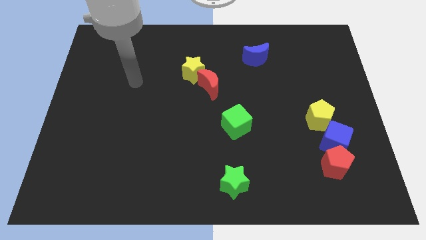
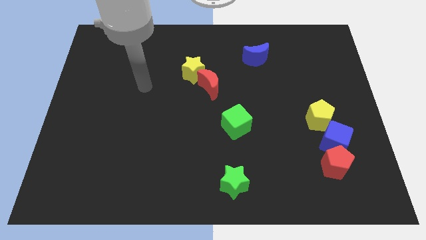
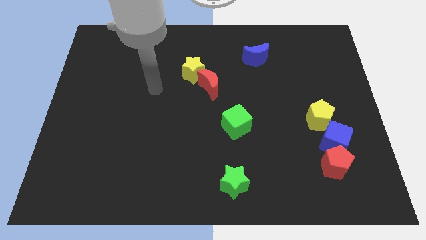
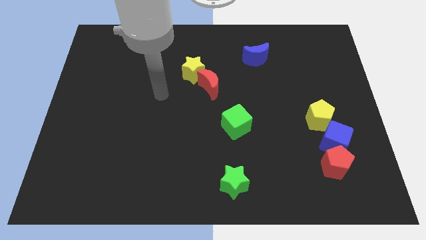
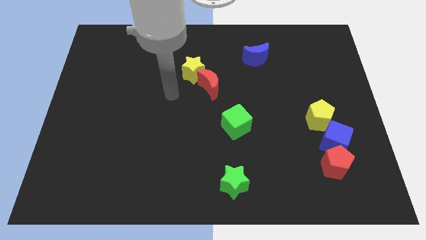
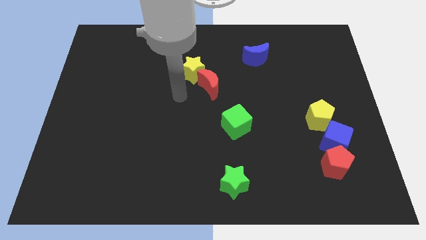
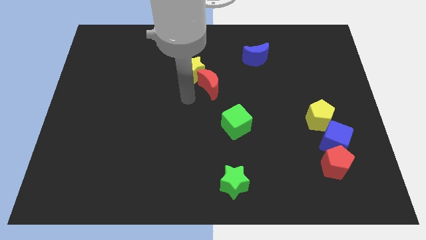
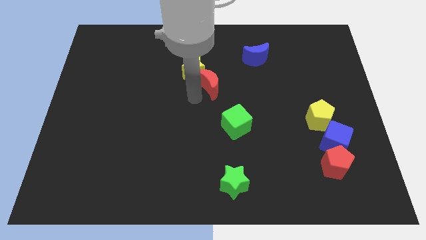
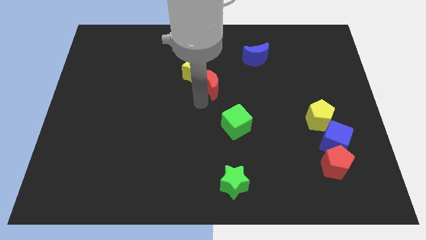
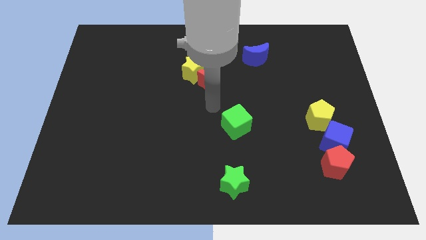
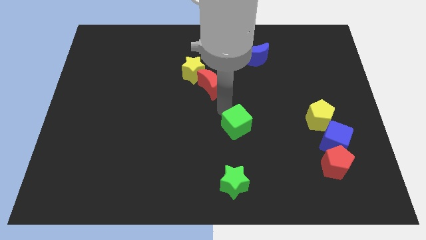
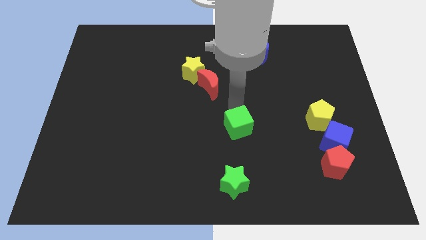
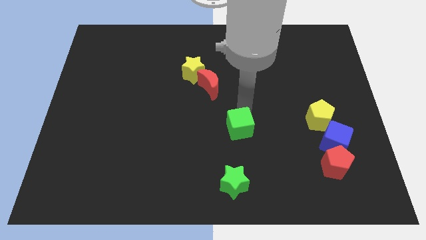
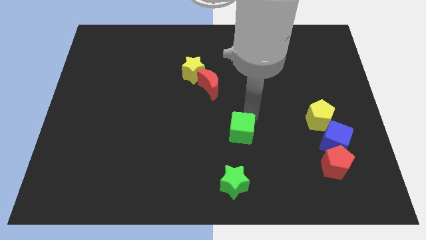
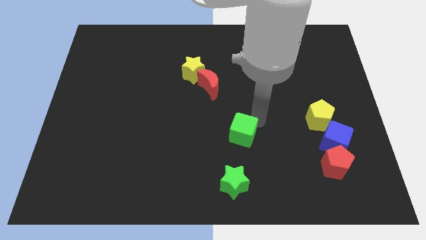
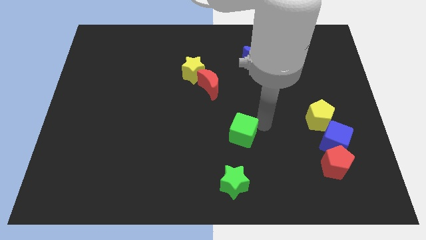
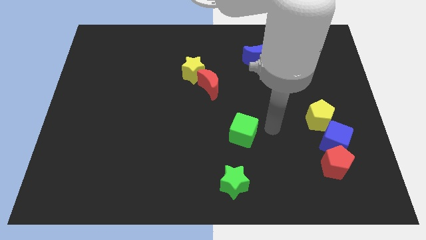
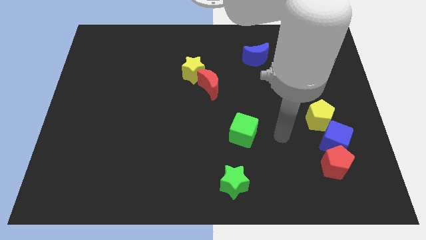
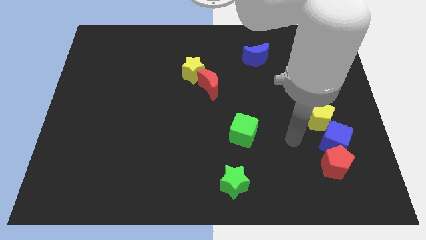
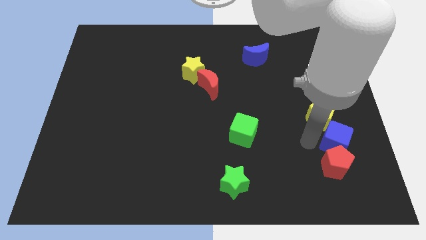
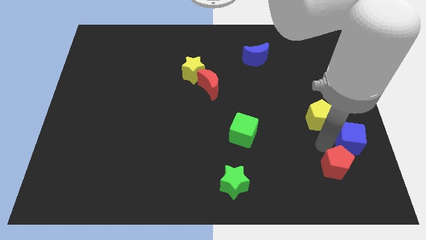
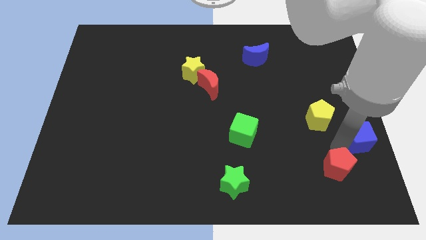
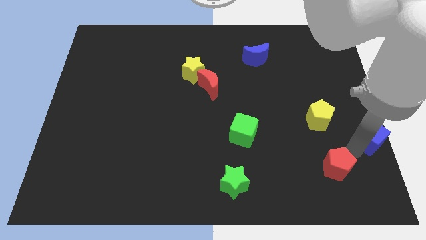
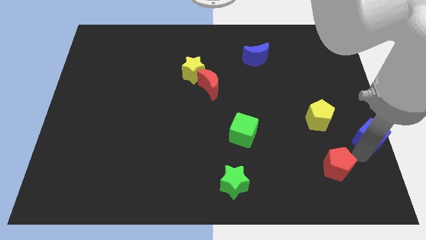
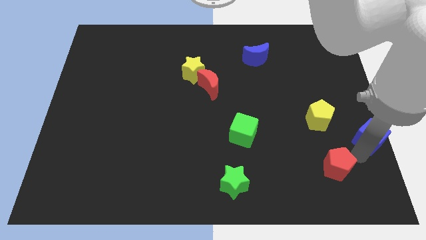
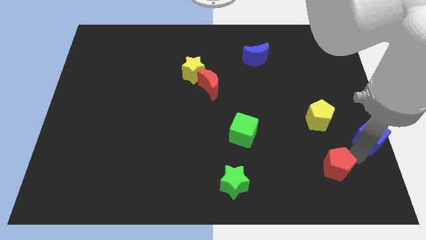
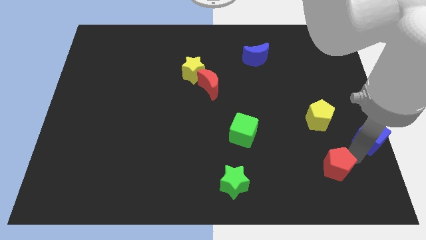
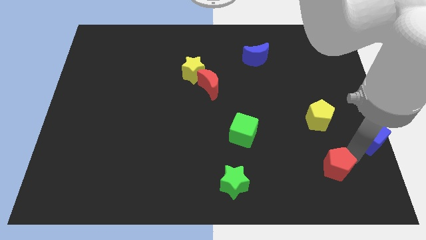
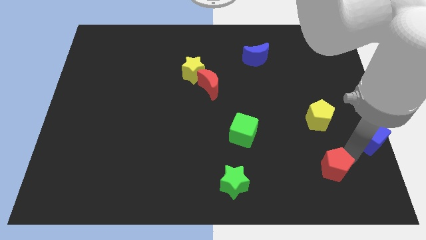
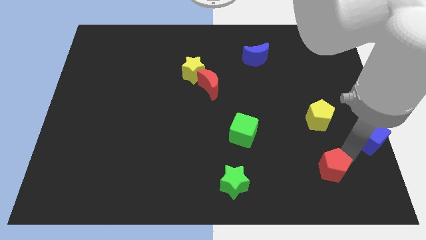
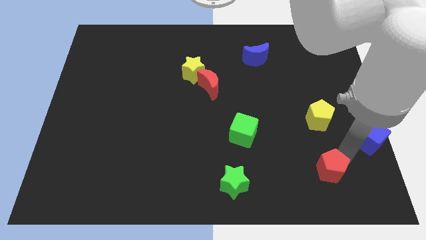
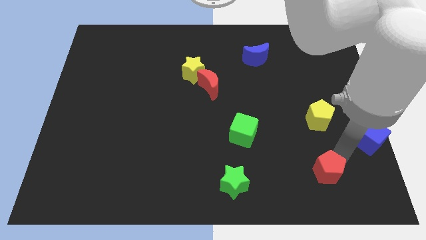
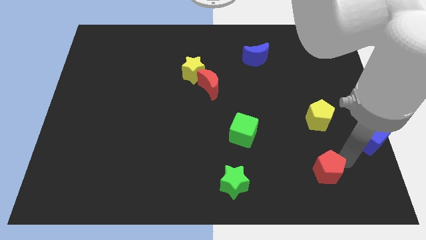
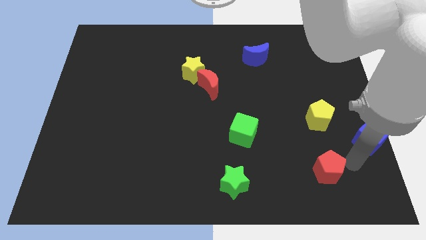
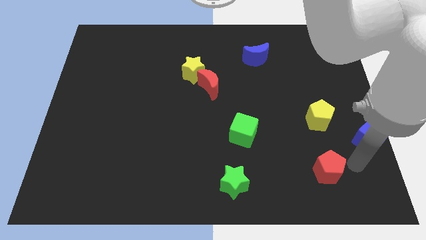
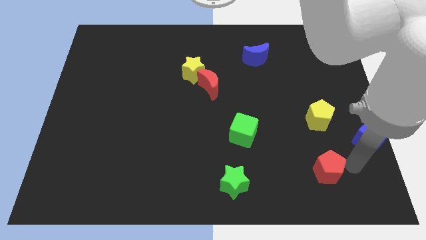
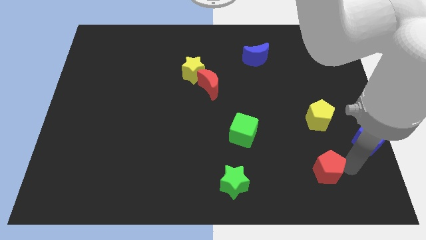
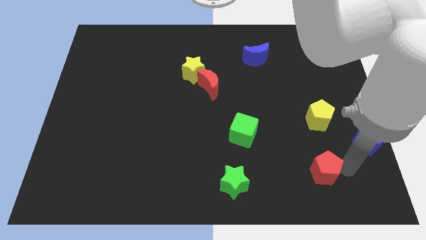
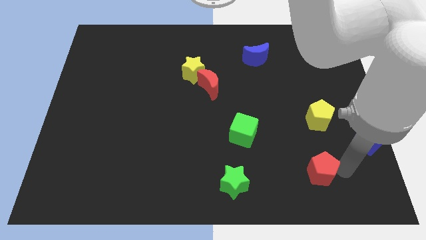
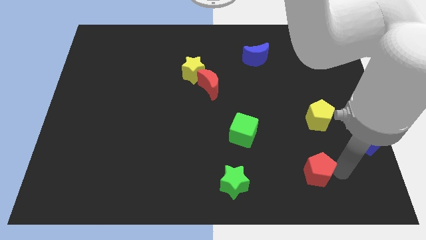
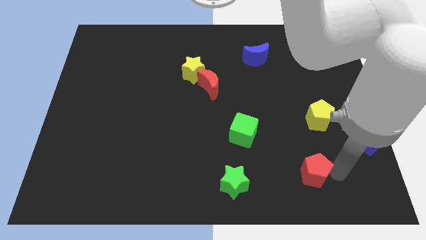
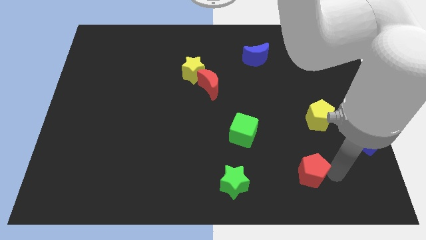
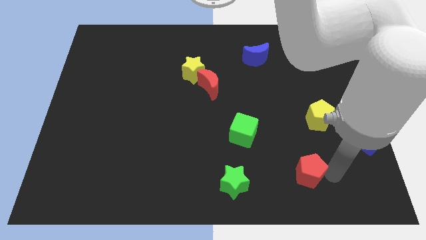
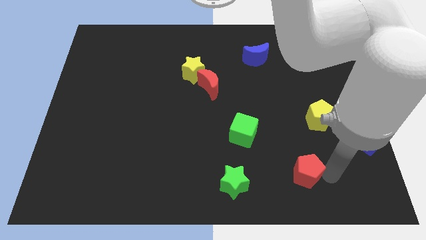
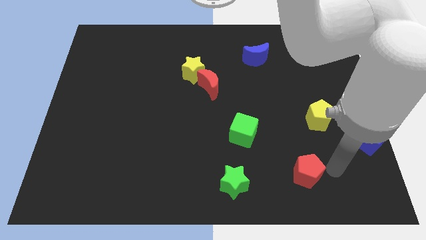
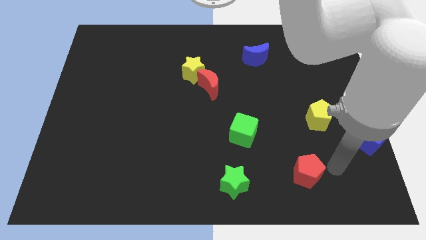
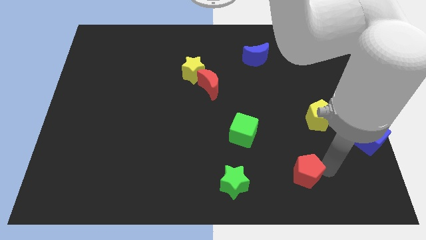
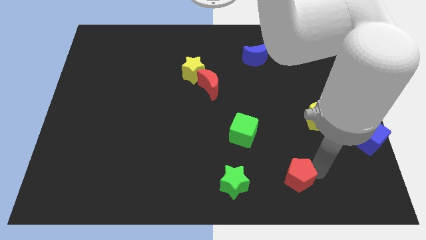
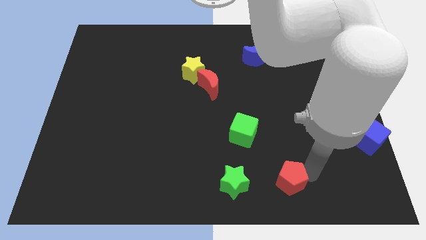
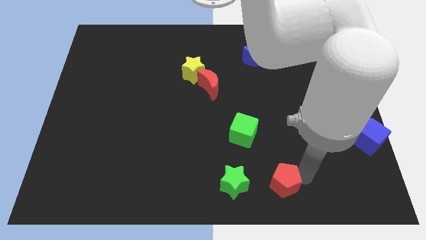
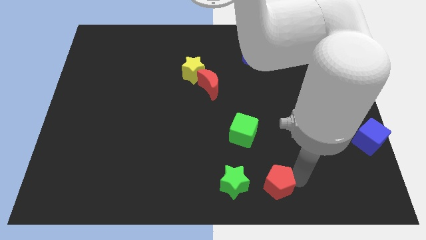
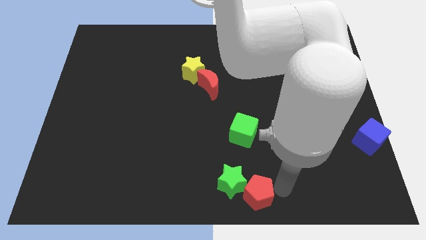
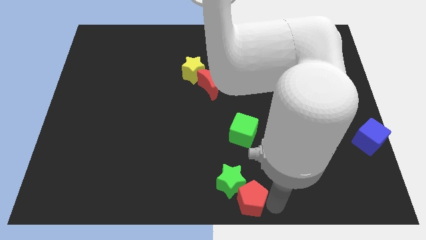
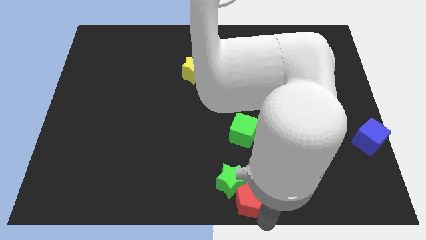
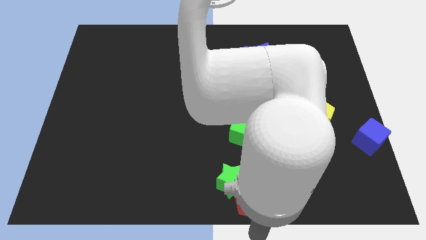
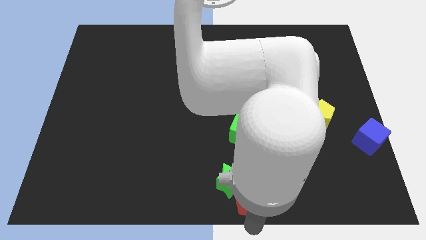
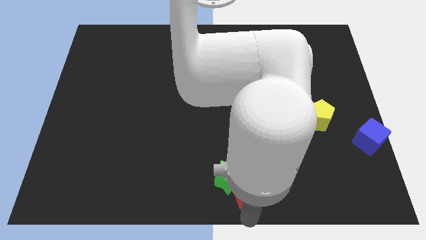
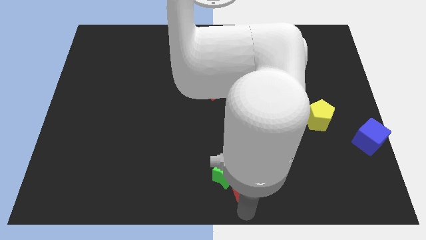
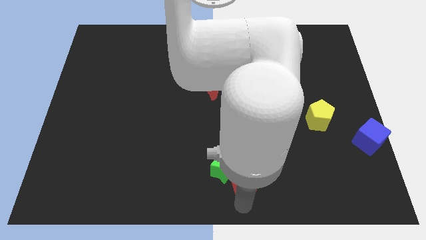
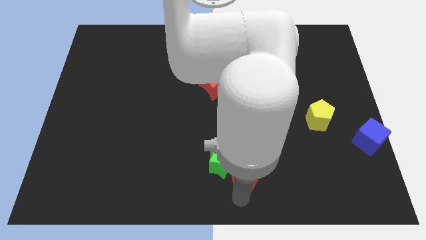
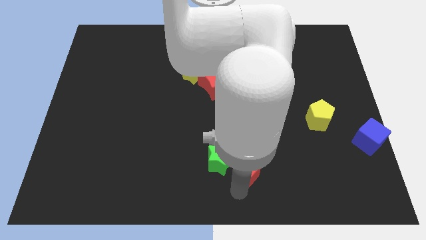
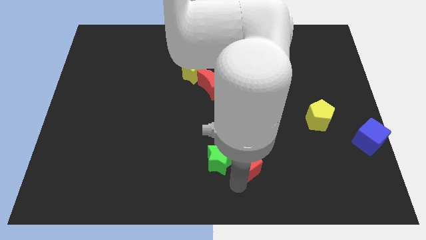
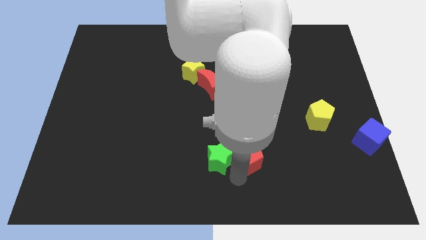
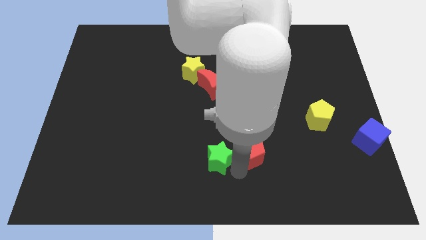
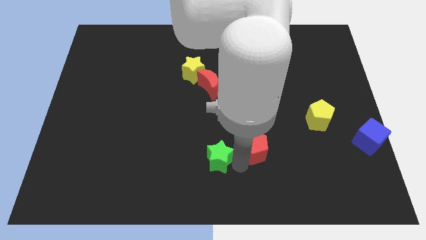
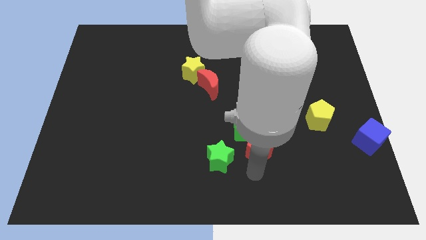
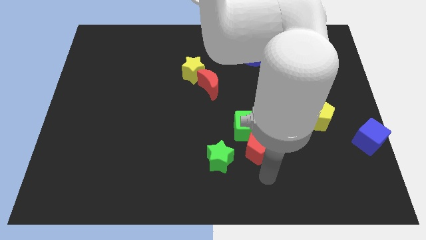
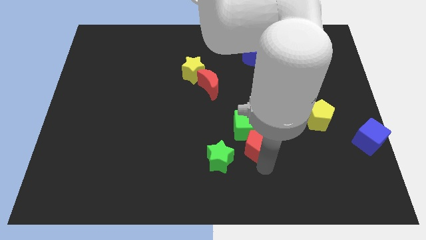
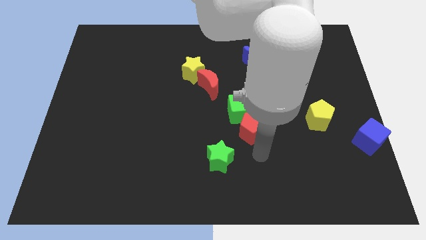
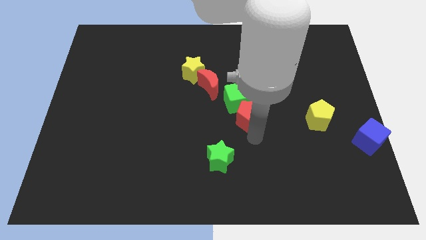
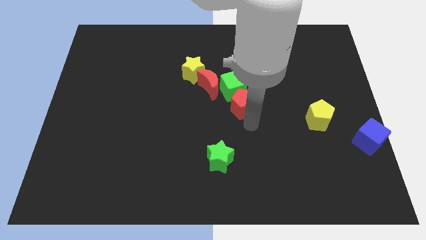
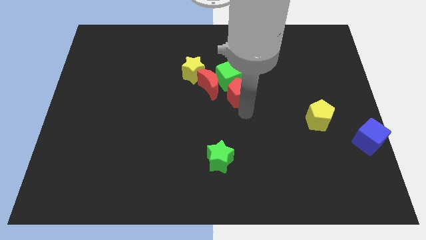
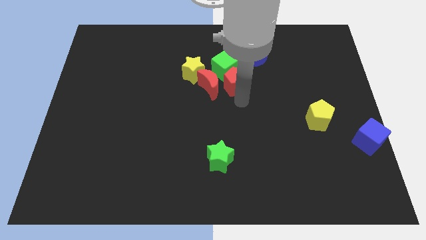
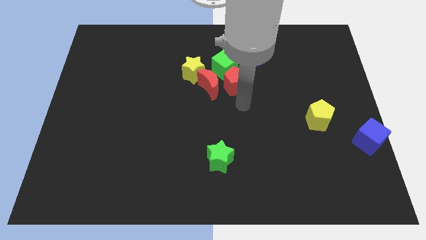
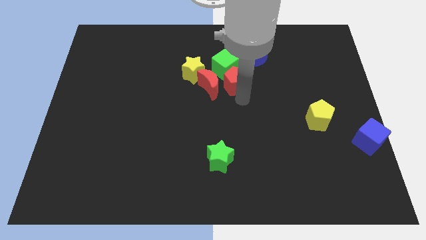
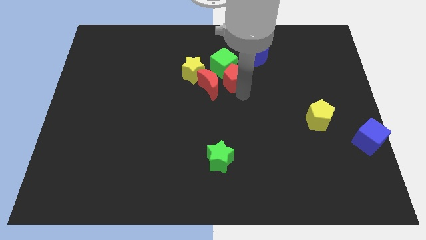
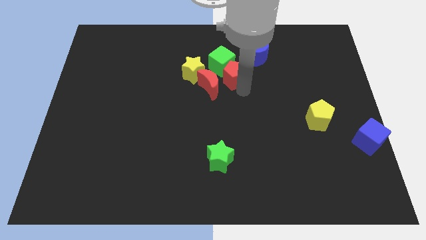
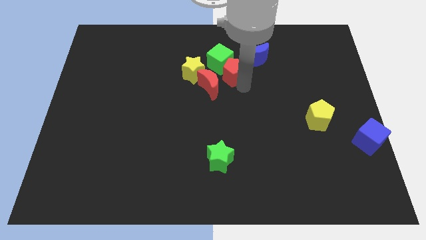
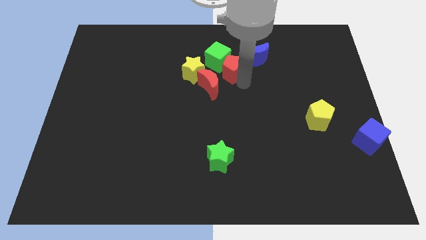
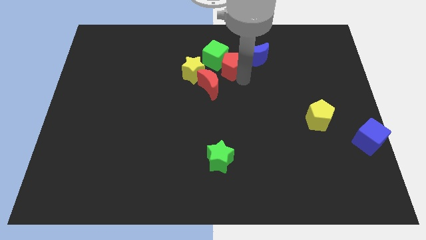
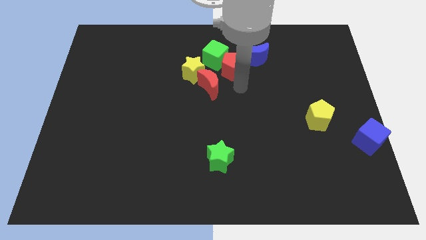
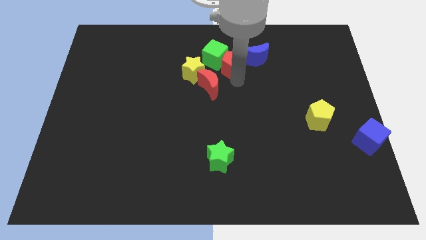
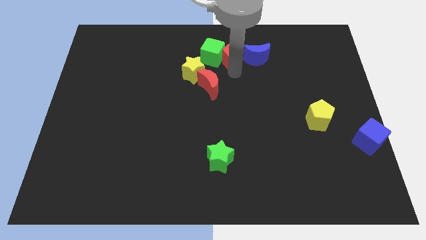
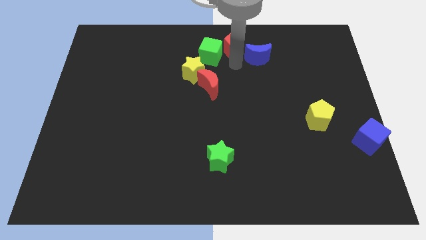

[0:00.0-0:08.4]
move the red pentagon to the towards your base
